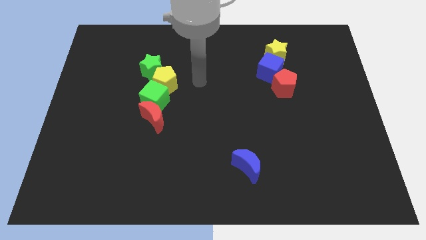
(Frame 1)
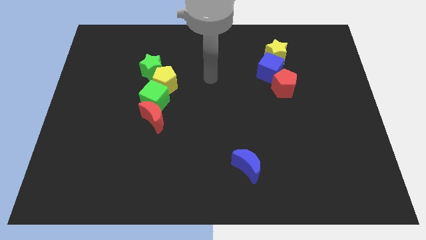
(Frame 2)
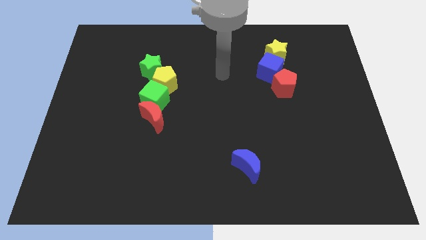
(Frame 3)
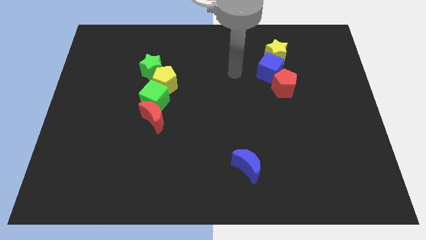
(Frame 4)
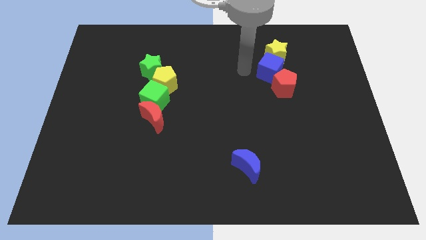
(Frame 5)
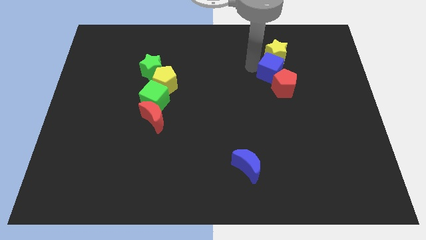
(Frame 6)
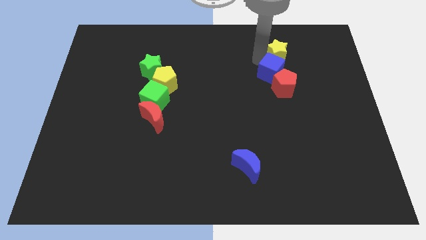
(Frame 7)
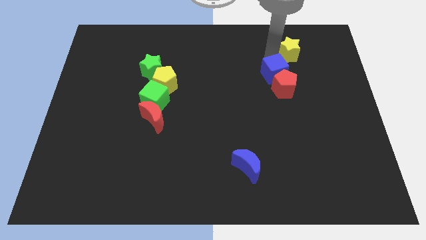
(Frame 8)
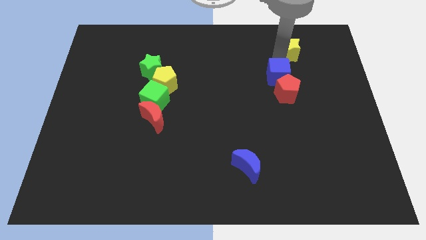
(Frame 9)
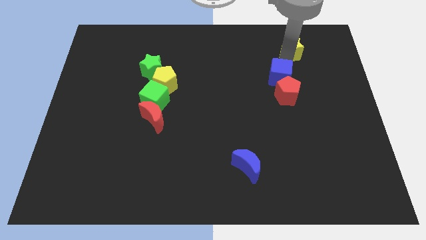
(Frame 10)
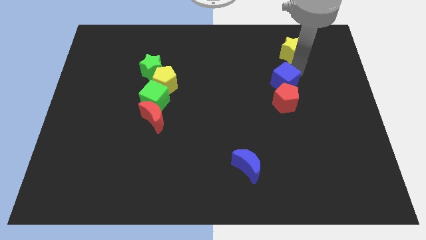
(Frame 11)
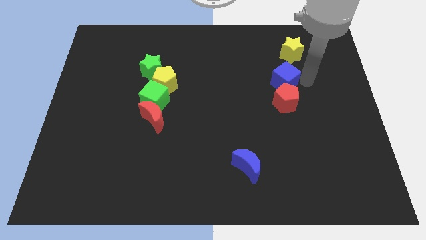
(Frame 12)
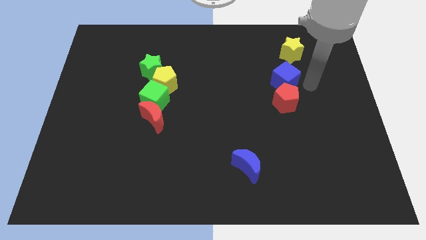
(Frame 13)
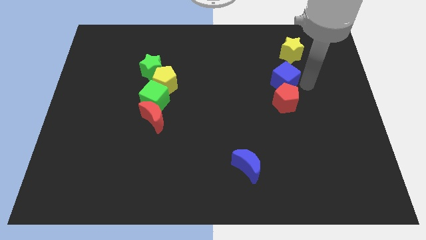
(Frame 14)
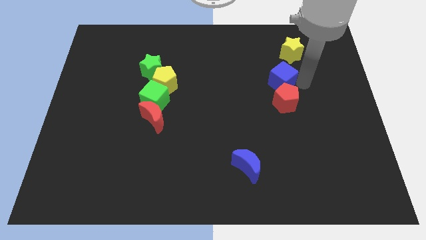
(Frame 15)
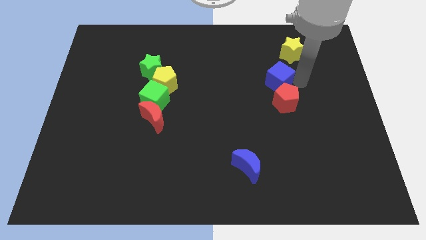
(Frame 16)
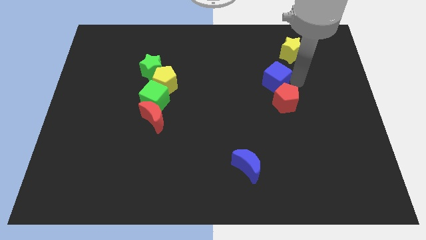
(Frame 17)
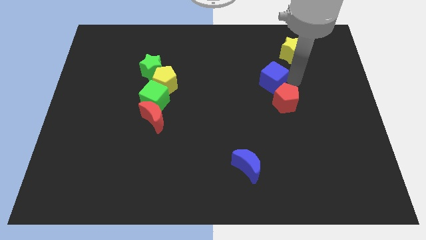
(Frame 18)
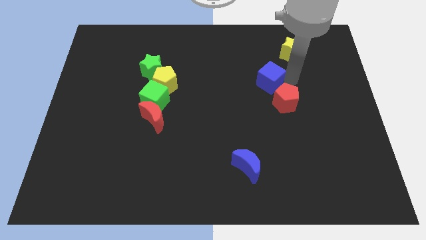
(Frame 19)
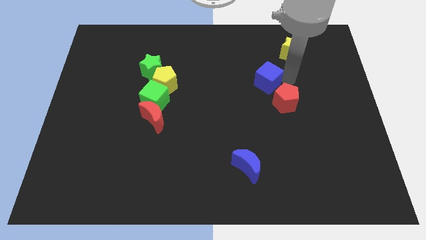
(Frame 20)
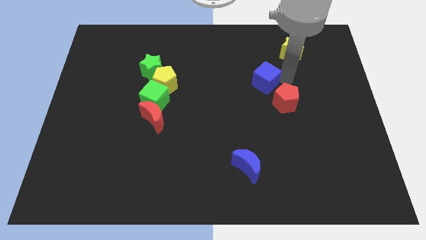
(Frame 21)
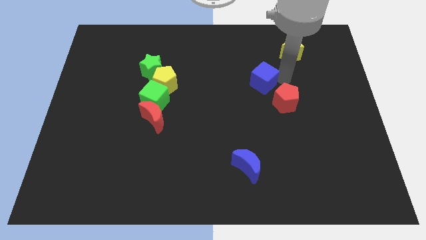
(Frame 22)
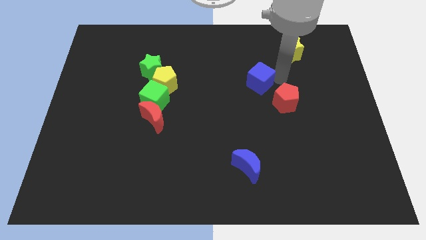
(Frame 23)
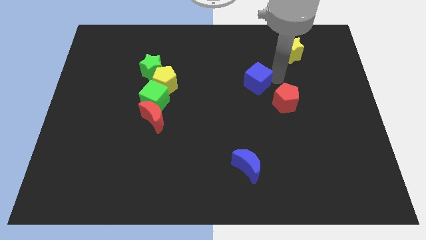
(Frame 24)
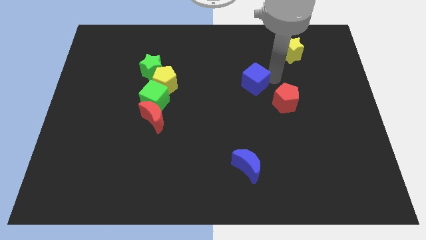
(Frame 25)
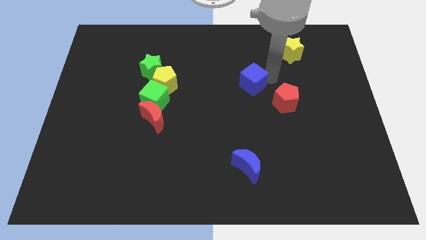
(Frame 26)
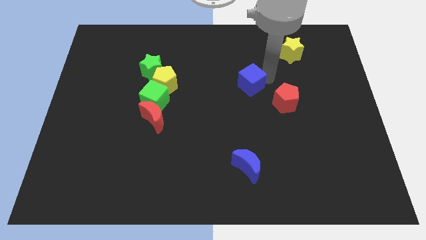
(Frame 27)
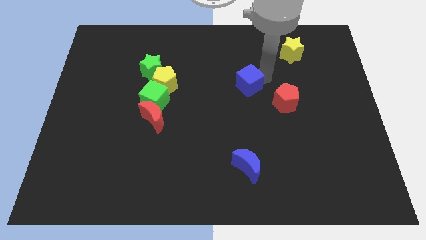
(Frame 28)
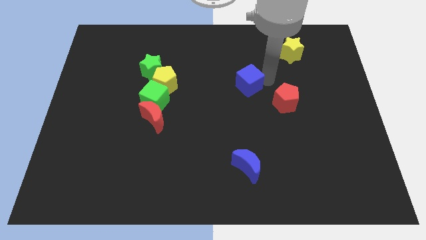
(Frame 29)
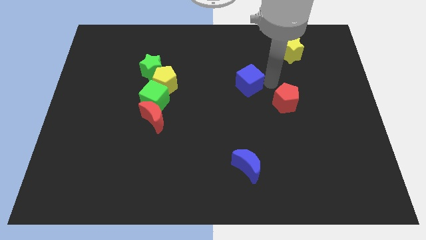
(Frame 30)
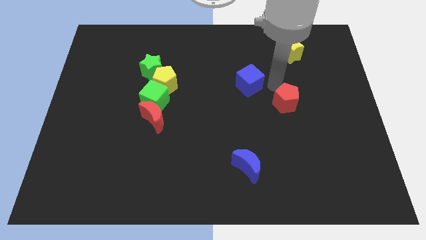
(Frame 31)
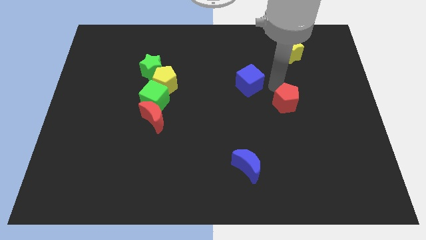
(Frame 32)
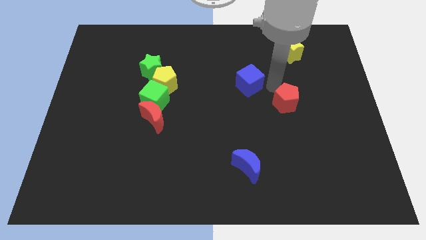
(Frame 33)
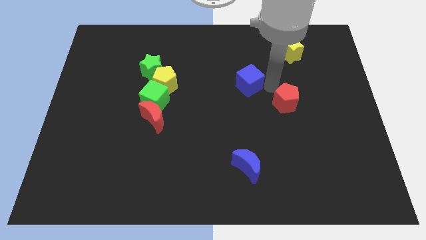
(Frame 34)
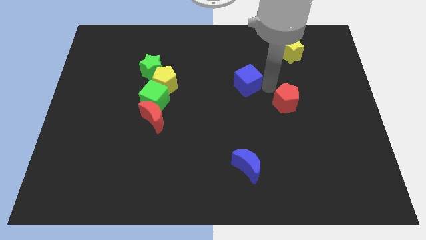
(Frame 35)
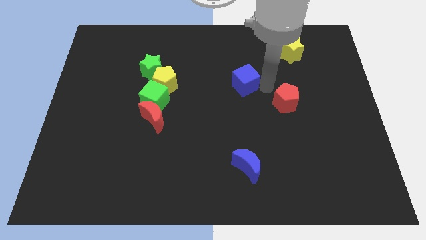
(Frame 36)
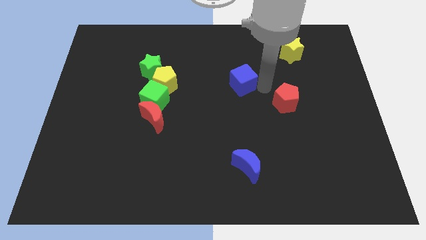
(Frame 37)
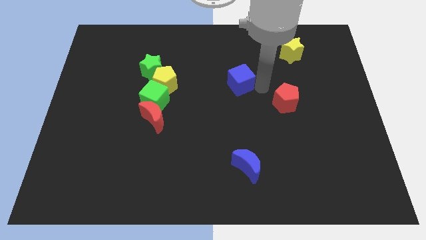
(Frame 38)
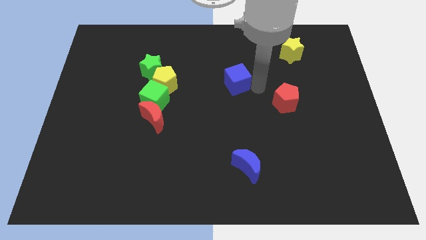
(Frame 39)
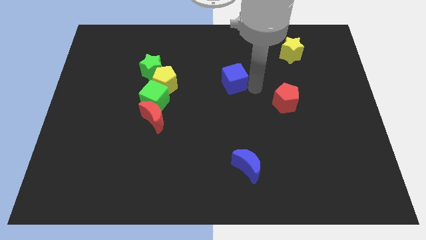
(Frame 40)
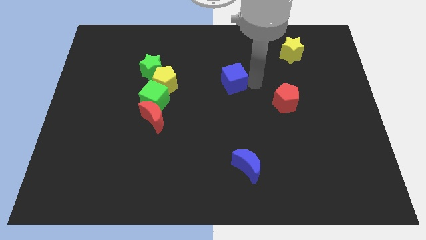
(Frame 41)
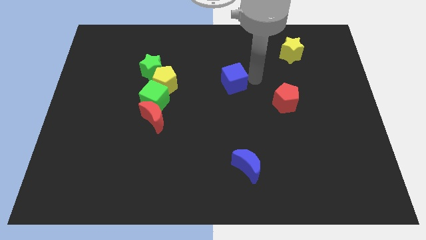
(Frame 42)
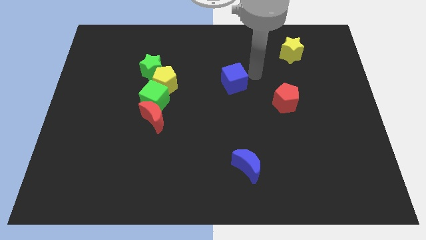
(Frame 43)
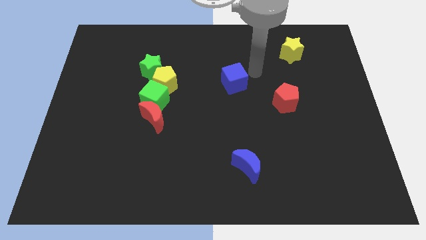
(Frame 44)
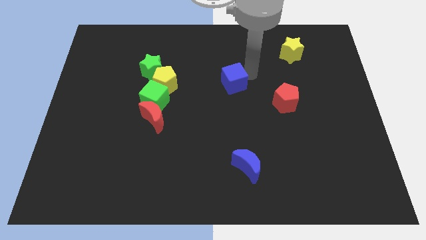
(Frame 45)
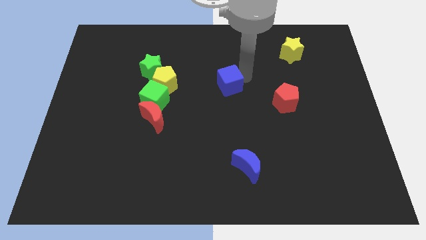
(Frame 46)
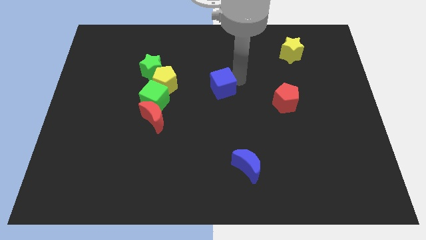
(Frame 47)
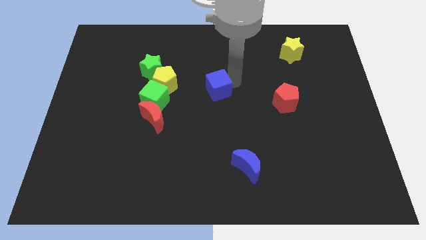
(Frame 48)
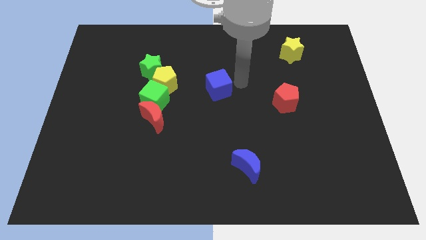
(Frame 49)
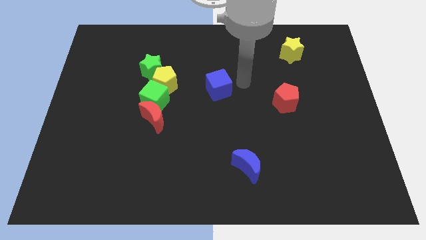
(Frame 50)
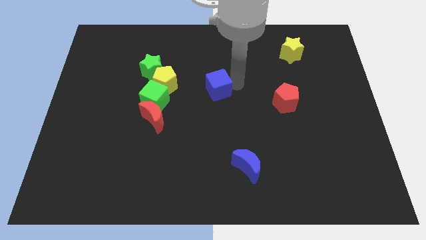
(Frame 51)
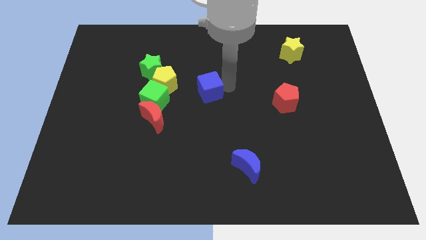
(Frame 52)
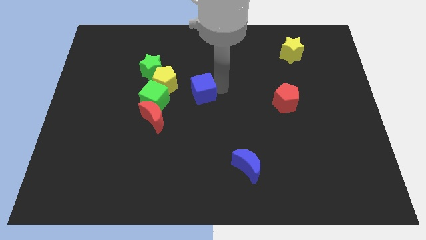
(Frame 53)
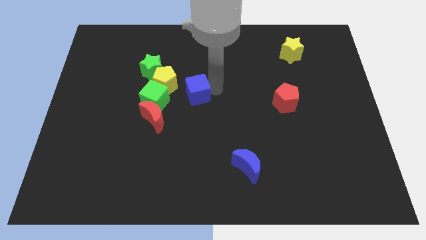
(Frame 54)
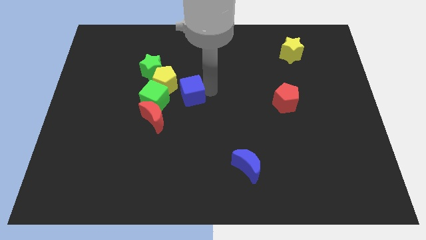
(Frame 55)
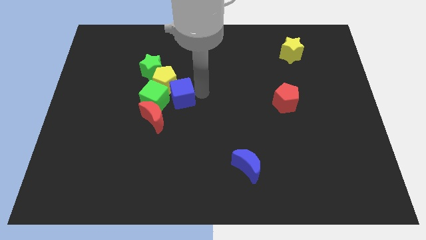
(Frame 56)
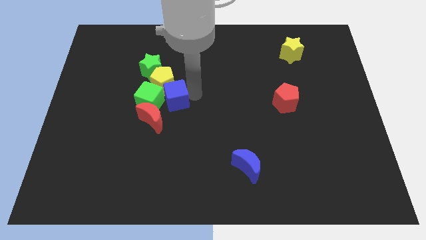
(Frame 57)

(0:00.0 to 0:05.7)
put the blue cube close to the green cube

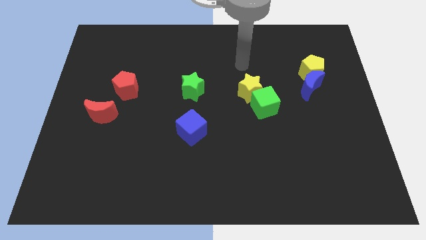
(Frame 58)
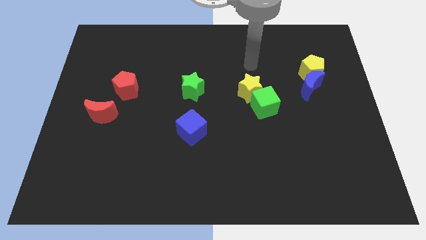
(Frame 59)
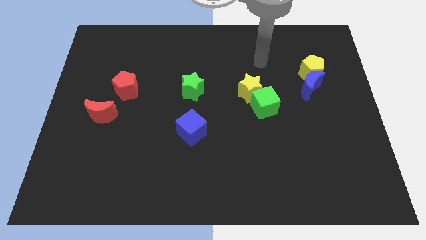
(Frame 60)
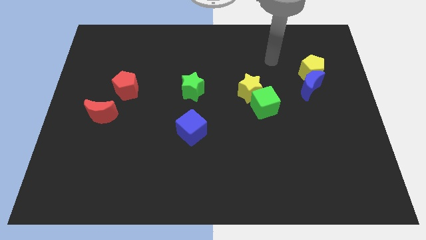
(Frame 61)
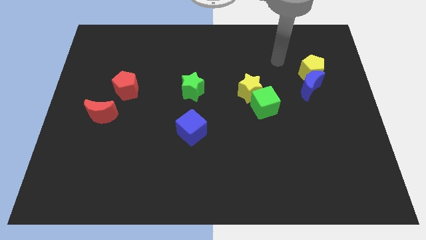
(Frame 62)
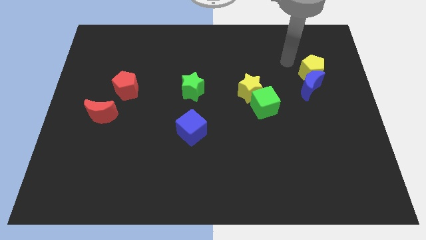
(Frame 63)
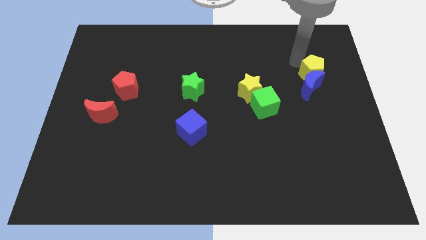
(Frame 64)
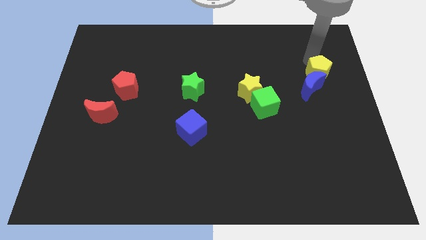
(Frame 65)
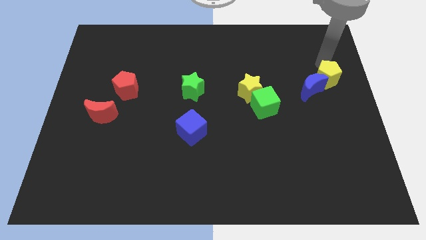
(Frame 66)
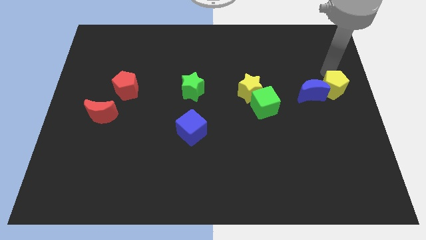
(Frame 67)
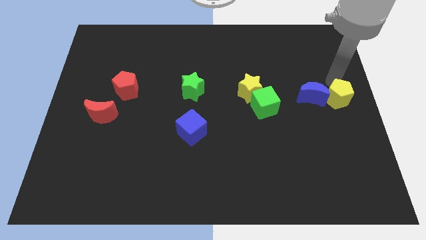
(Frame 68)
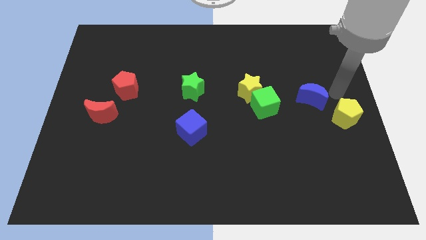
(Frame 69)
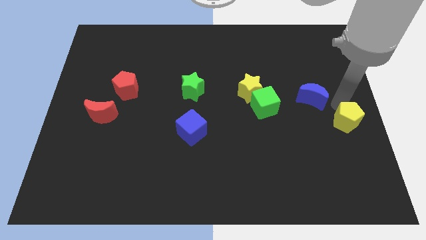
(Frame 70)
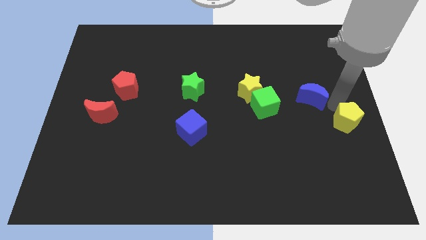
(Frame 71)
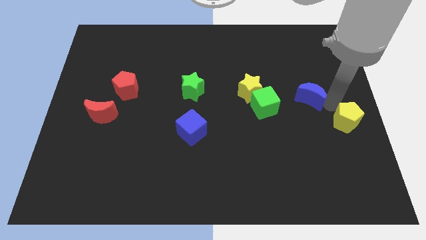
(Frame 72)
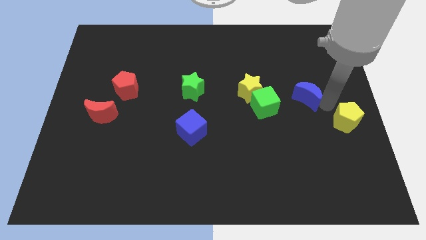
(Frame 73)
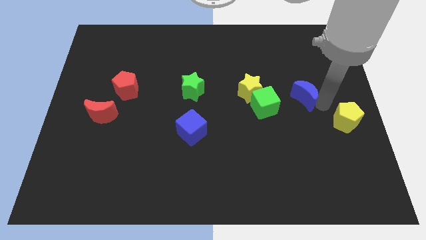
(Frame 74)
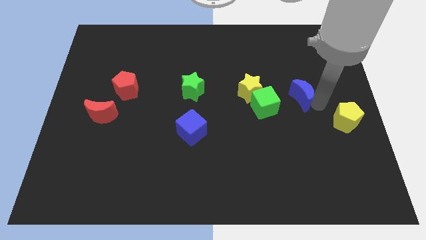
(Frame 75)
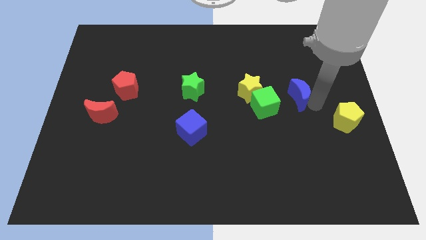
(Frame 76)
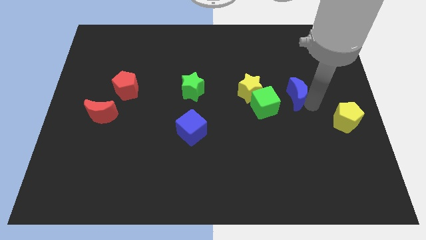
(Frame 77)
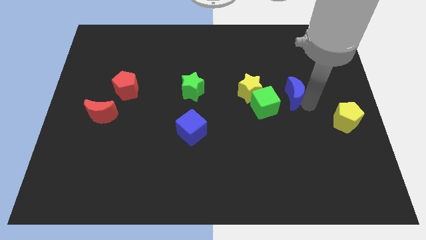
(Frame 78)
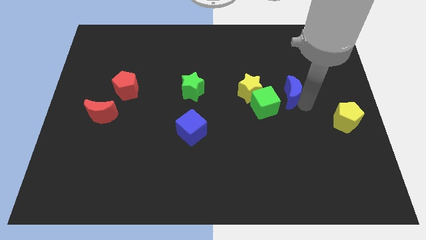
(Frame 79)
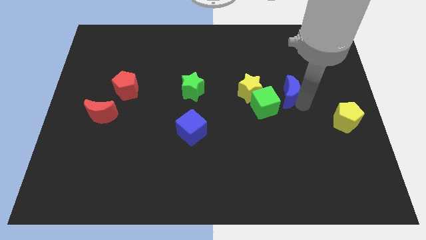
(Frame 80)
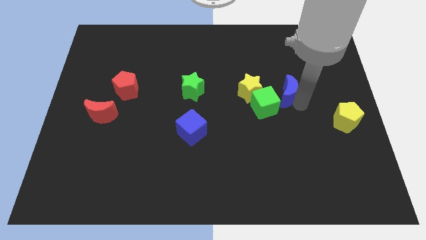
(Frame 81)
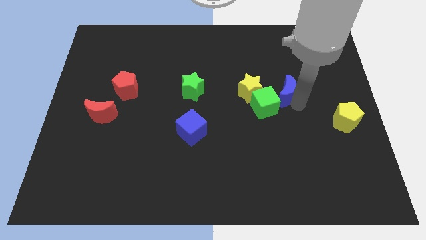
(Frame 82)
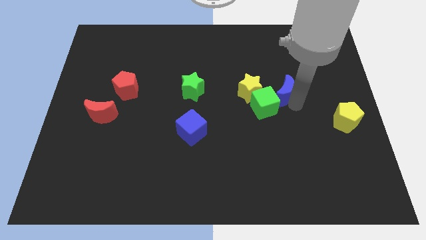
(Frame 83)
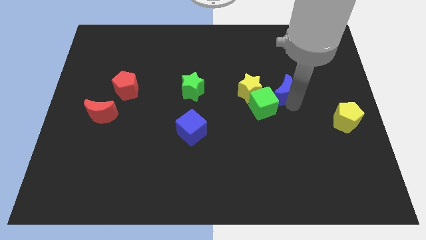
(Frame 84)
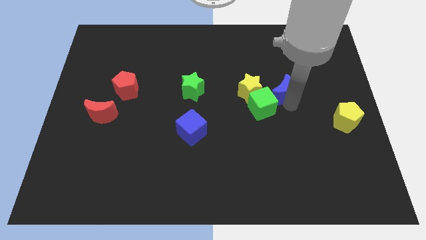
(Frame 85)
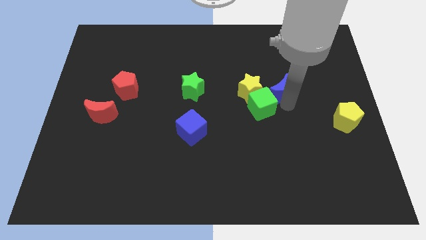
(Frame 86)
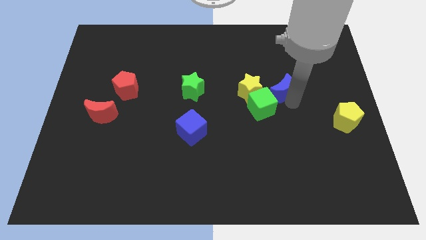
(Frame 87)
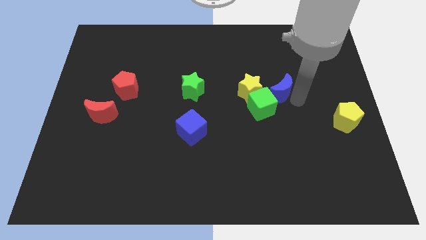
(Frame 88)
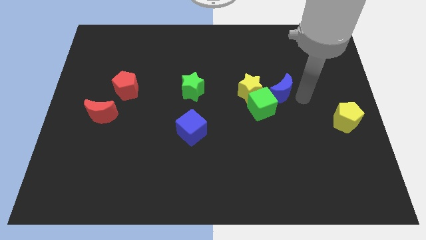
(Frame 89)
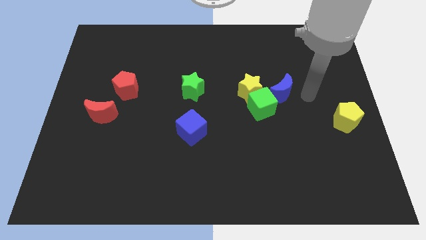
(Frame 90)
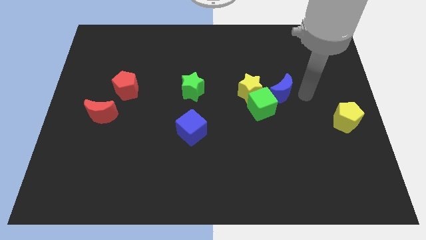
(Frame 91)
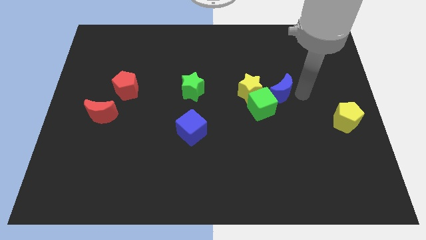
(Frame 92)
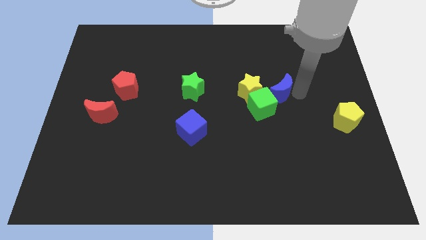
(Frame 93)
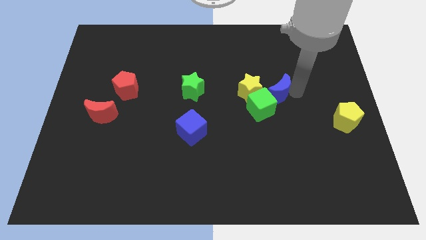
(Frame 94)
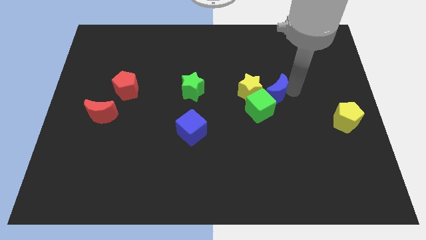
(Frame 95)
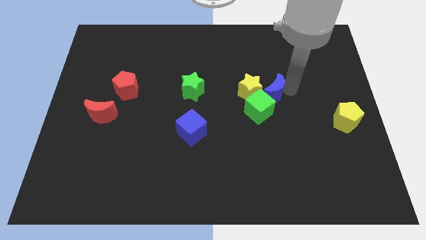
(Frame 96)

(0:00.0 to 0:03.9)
put the blue moon towards the yellow star
